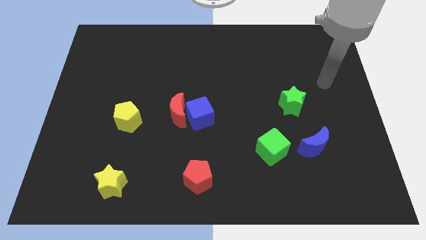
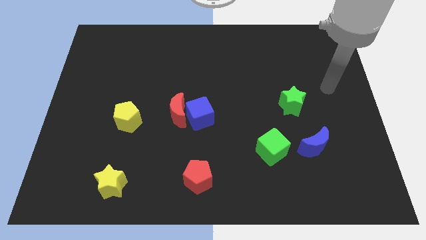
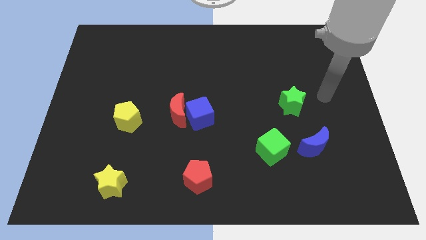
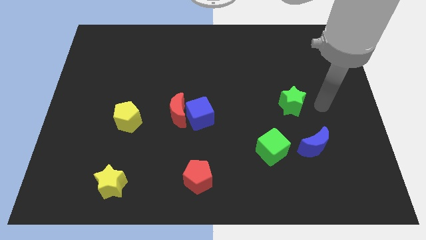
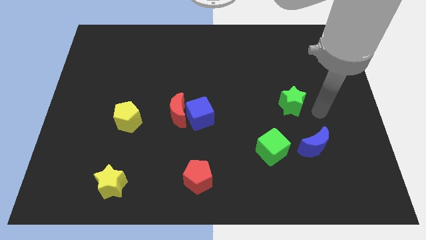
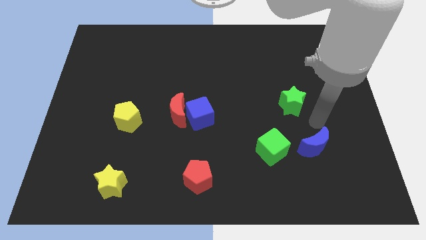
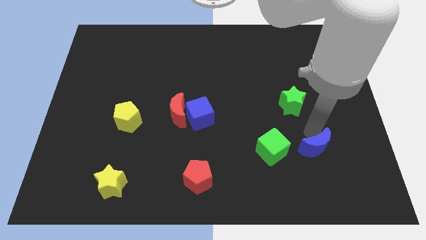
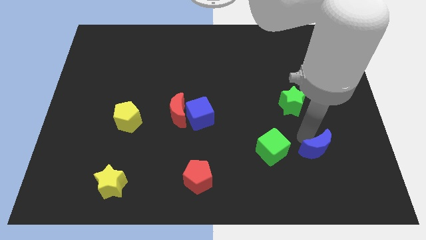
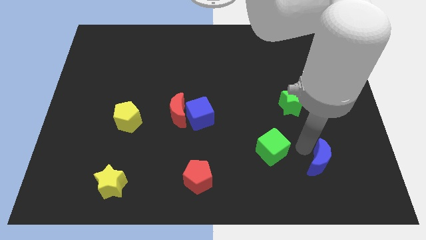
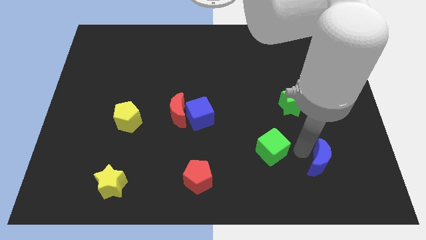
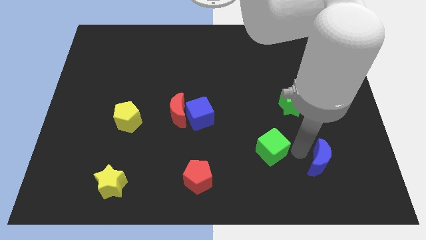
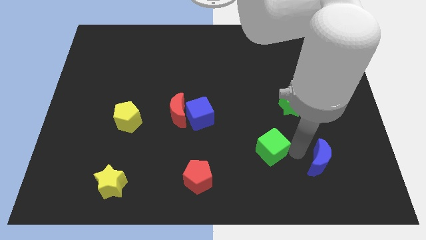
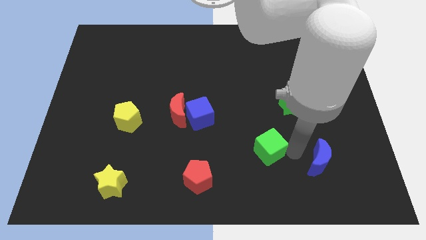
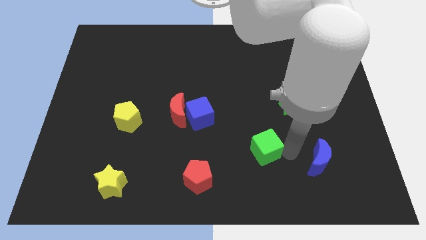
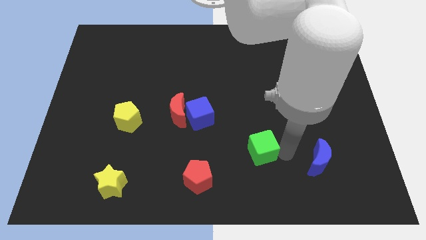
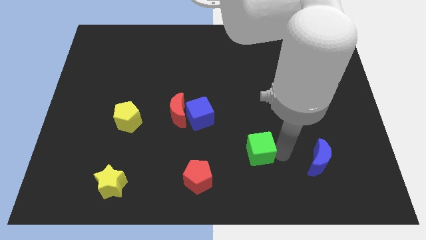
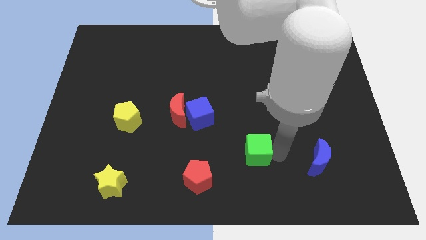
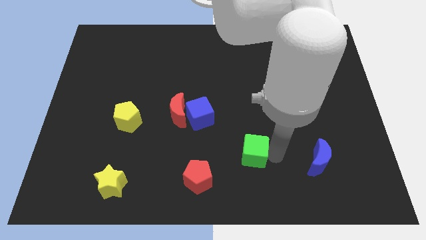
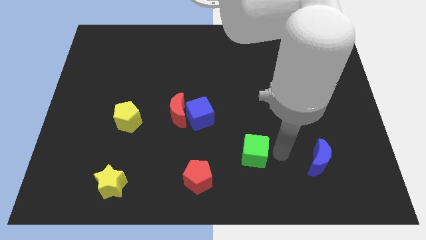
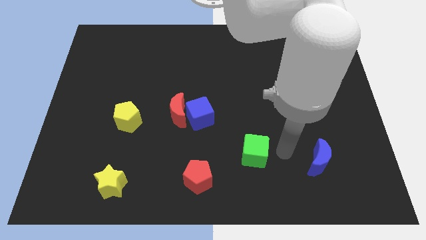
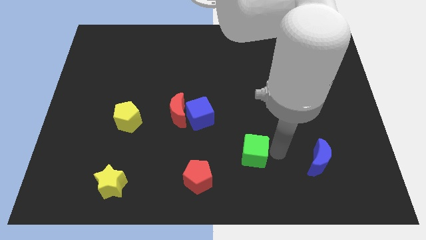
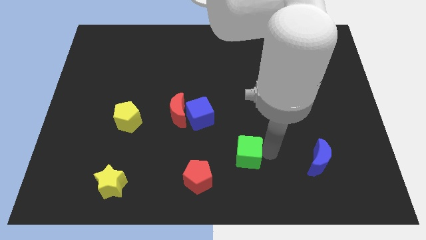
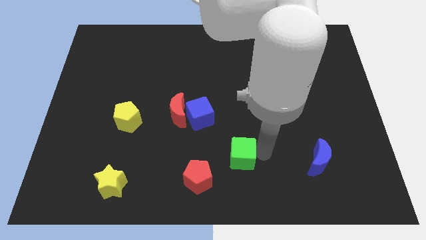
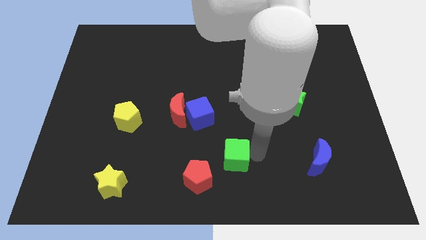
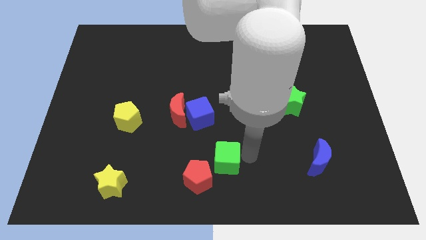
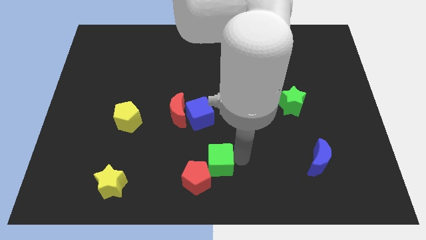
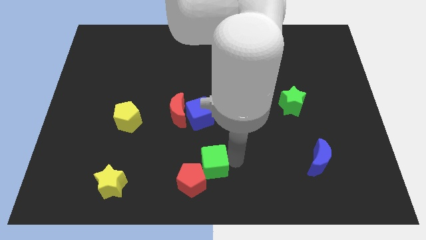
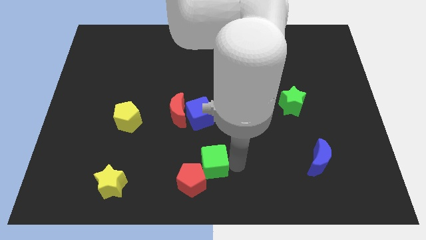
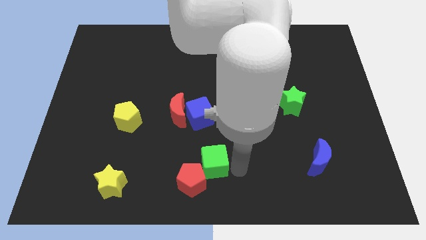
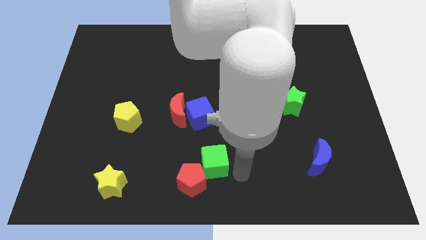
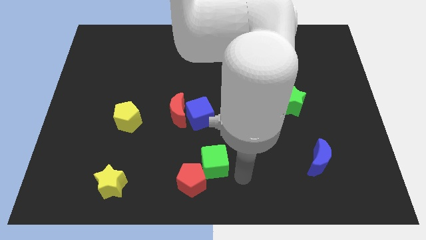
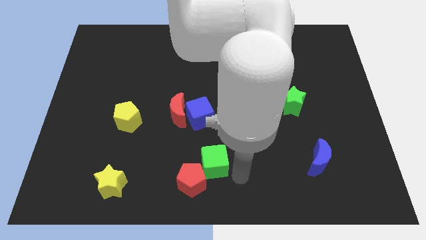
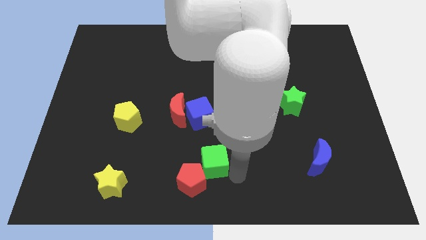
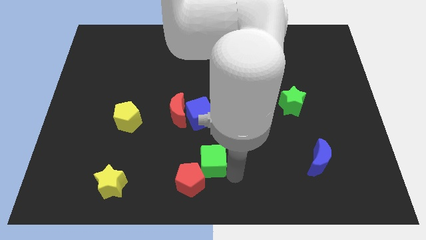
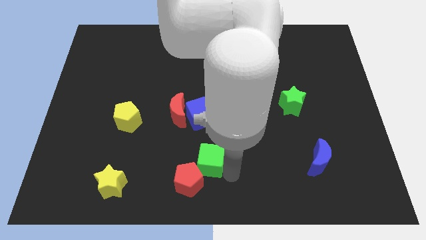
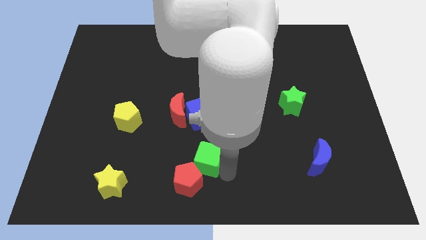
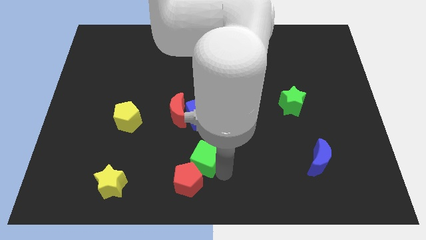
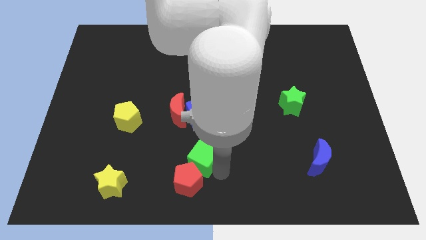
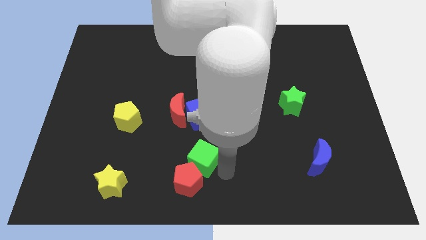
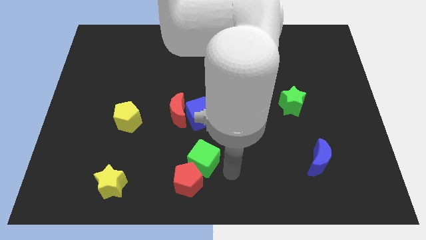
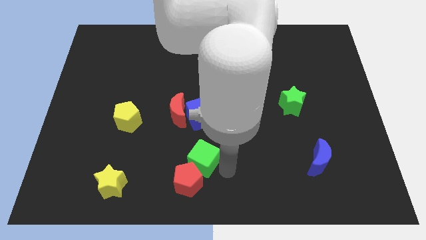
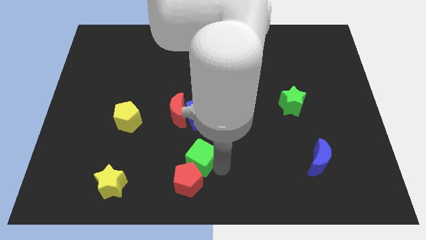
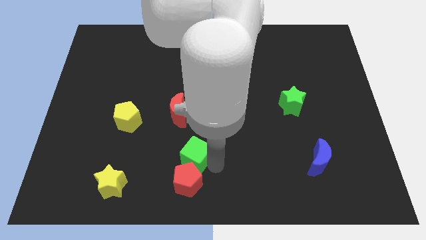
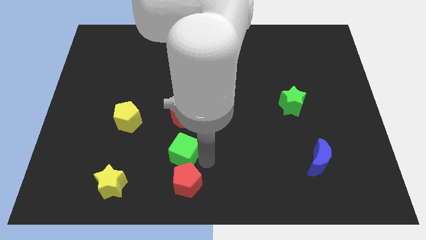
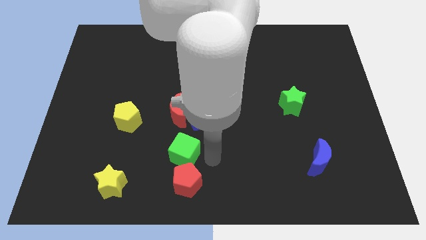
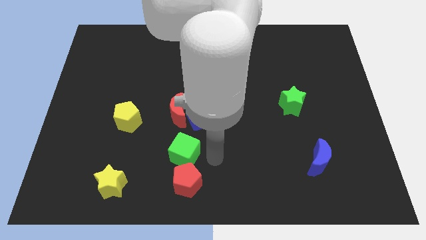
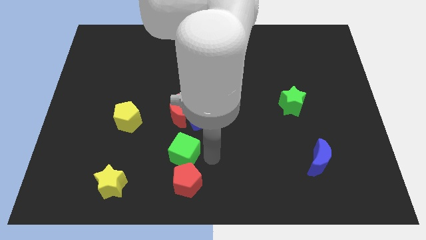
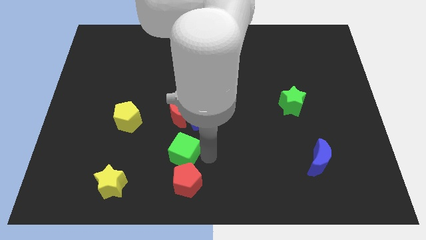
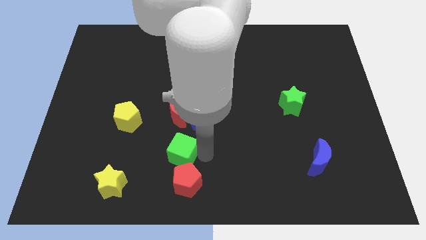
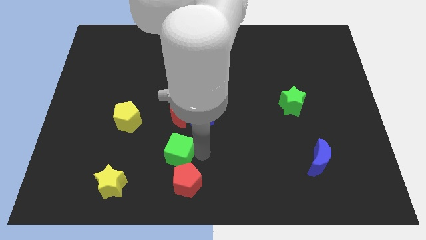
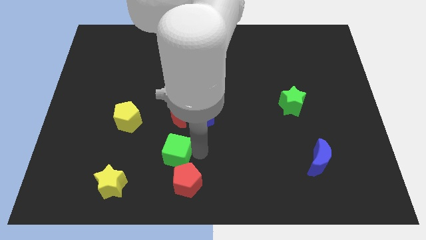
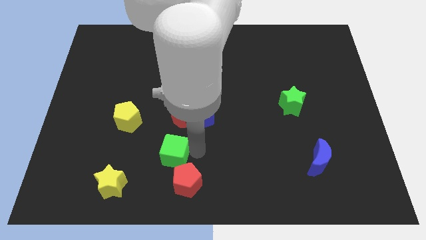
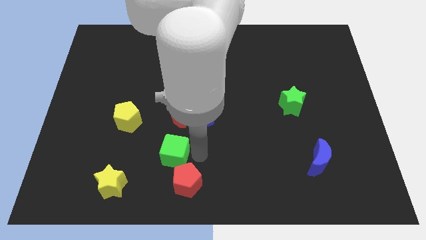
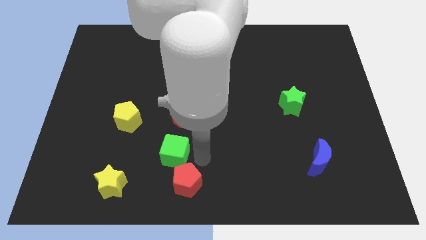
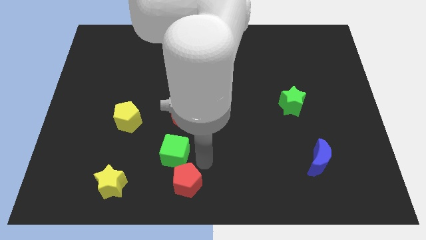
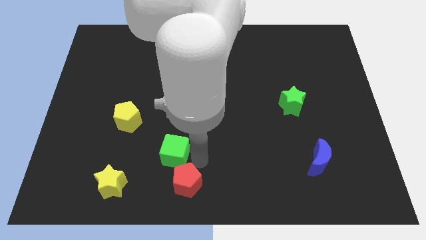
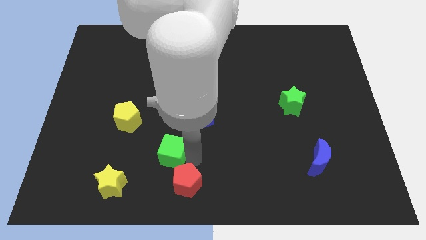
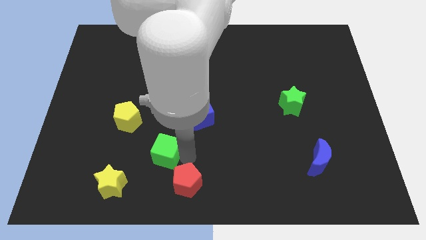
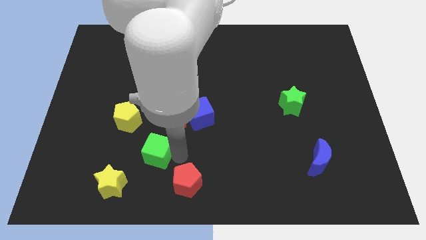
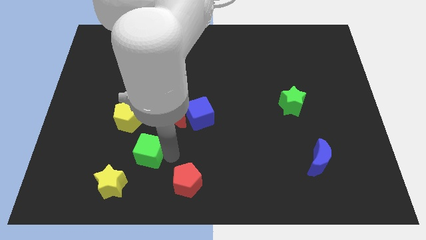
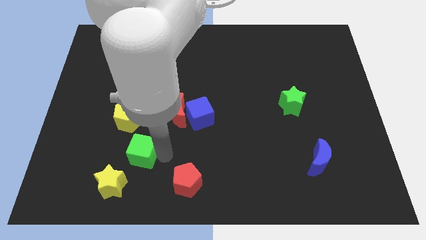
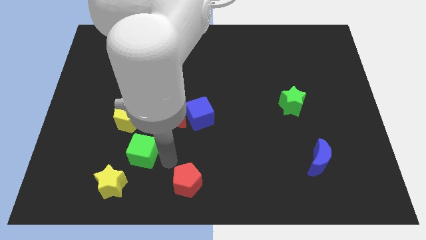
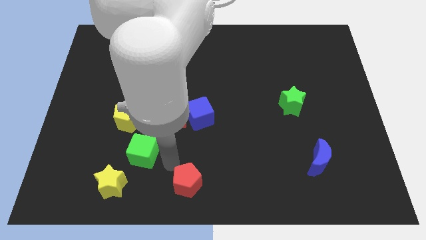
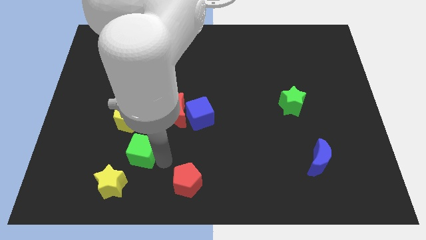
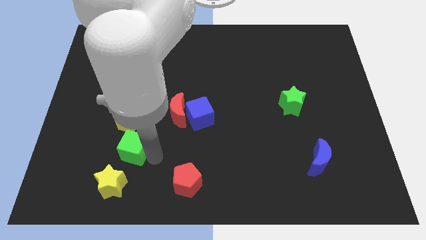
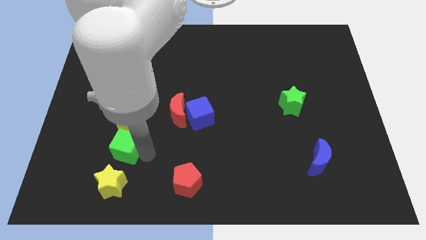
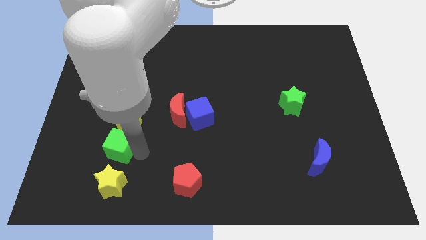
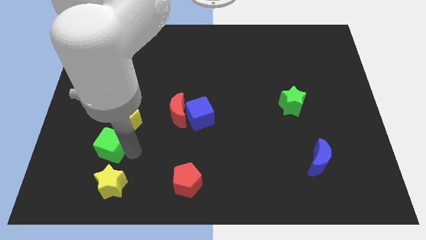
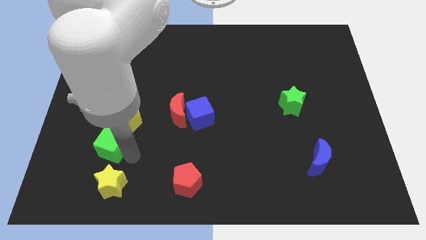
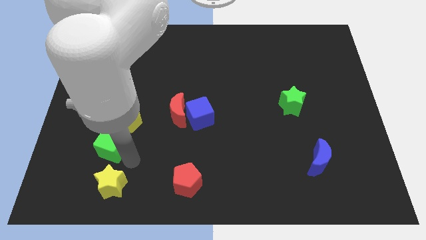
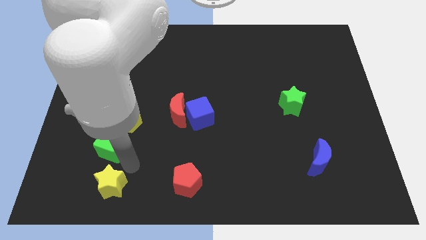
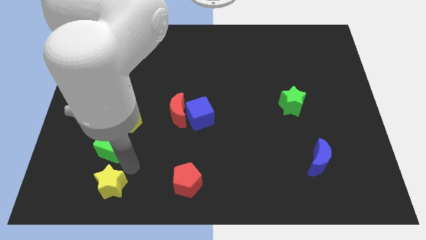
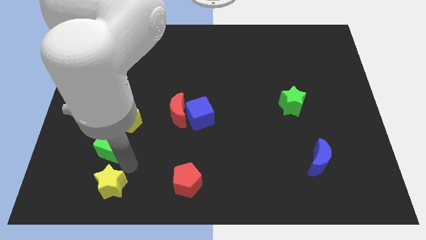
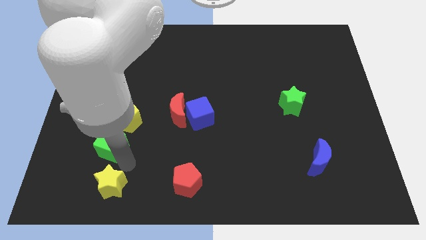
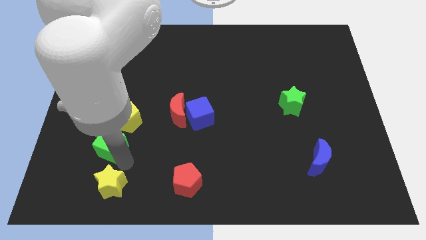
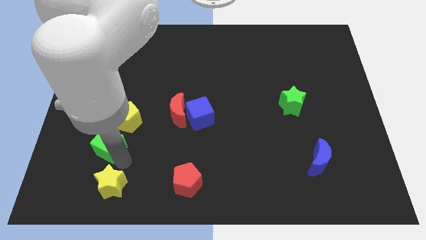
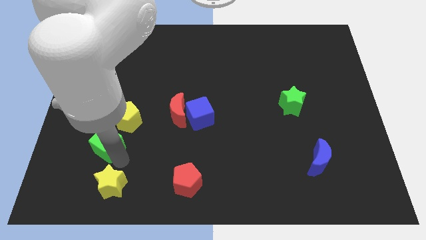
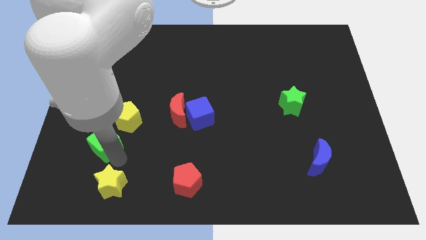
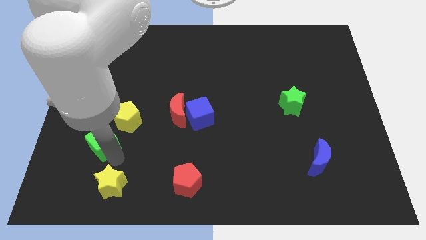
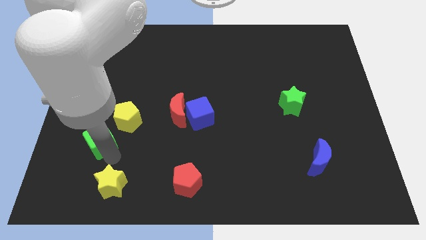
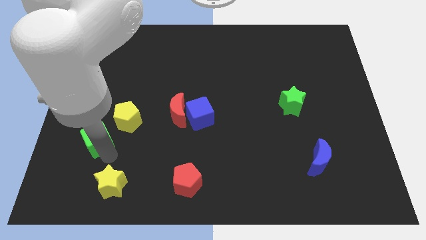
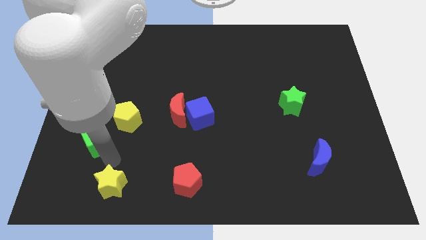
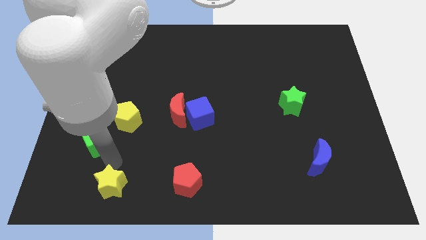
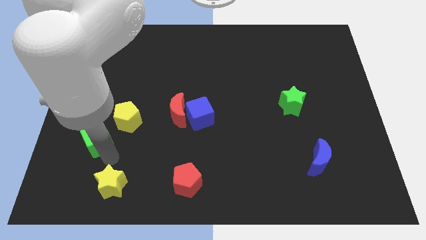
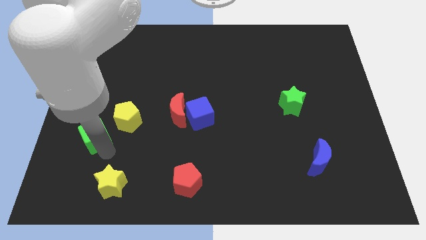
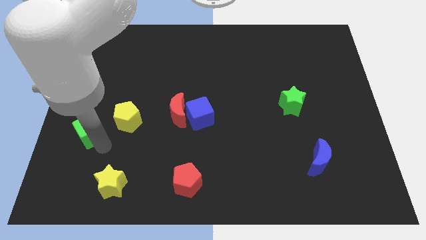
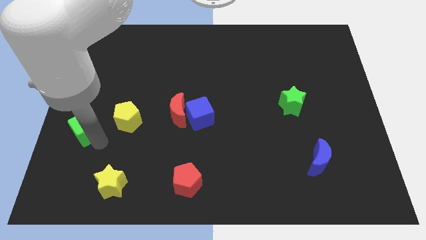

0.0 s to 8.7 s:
put the green cube to the center left
